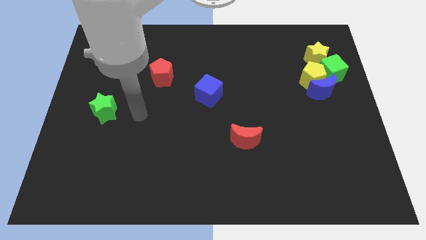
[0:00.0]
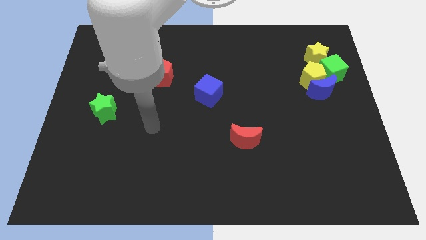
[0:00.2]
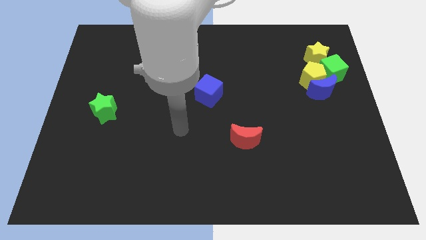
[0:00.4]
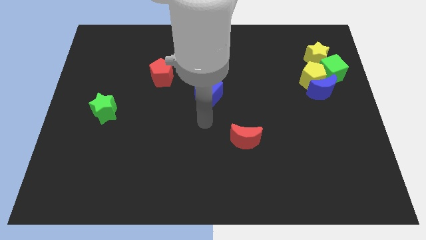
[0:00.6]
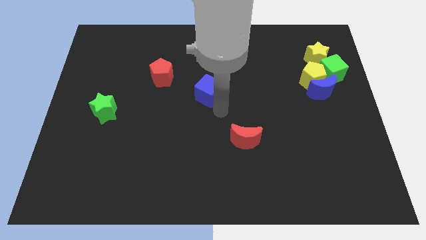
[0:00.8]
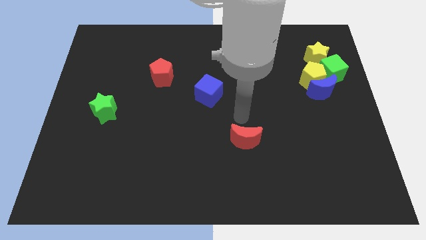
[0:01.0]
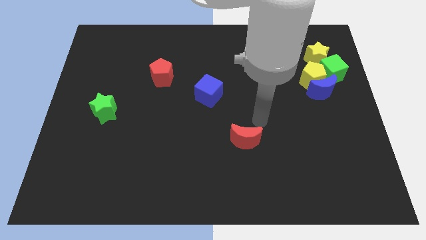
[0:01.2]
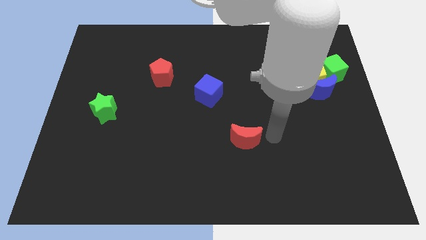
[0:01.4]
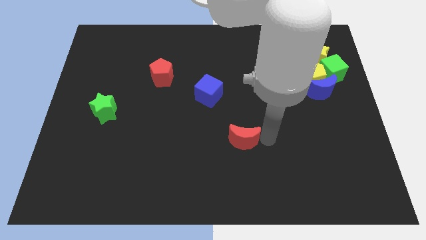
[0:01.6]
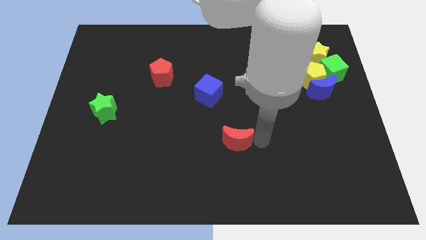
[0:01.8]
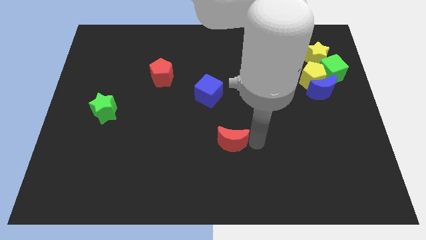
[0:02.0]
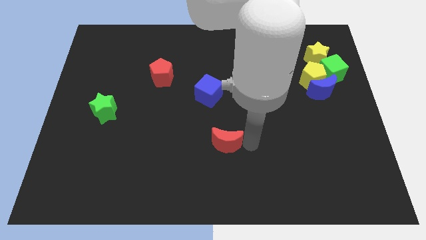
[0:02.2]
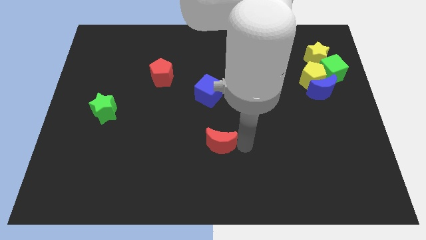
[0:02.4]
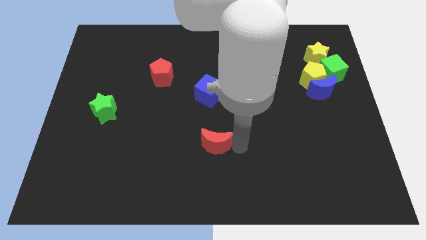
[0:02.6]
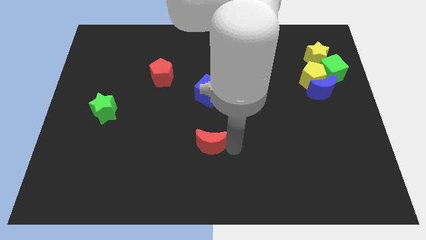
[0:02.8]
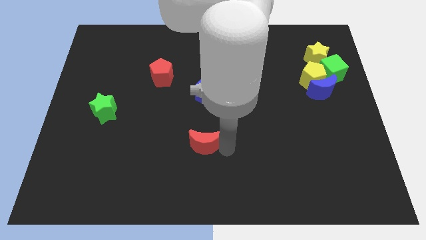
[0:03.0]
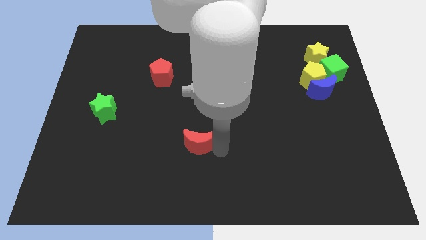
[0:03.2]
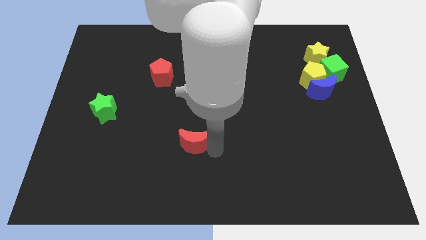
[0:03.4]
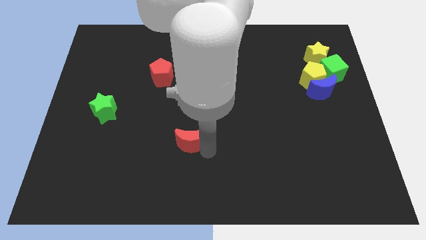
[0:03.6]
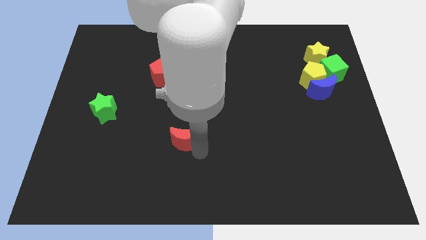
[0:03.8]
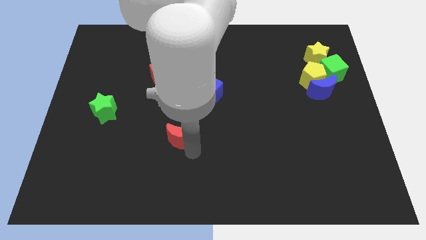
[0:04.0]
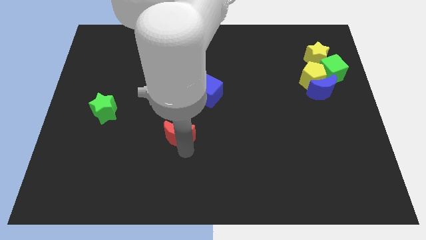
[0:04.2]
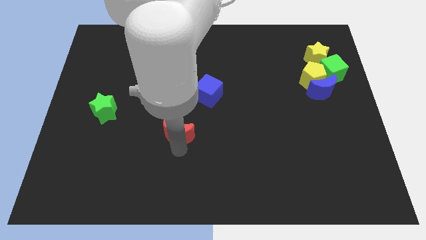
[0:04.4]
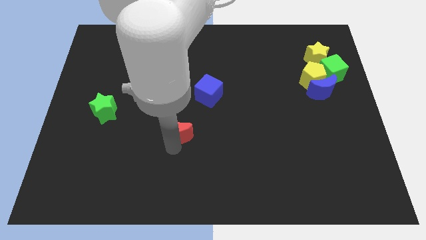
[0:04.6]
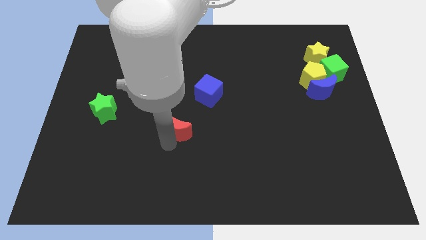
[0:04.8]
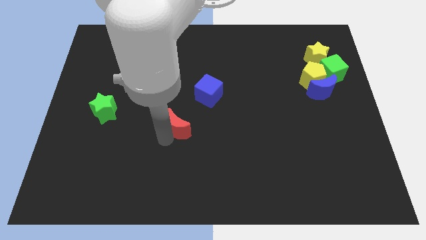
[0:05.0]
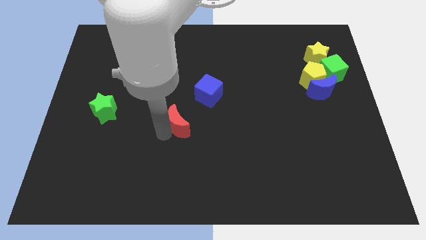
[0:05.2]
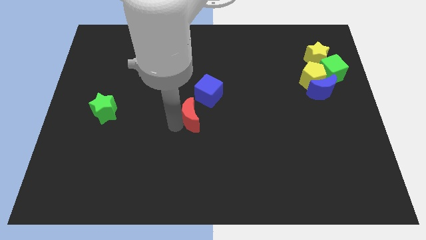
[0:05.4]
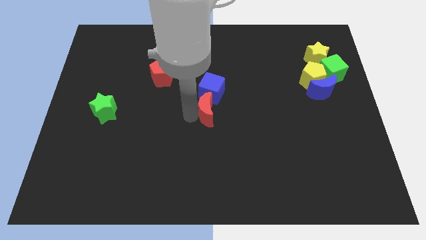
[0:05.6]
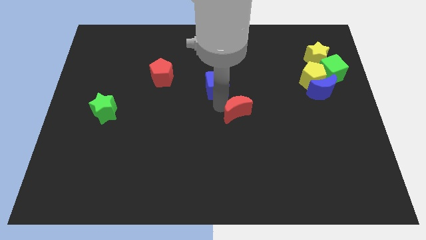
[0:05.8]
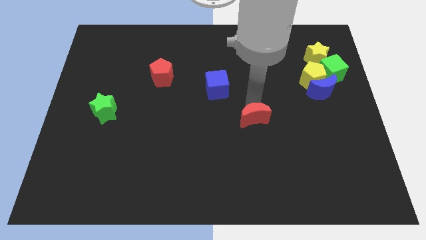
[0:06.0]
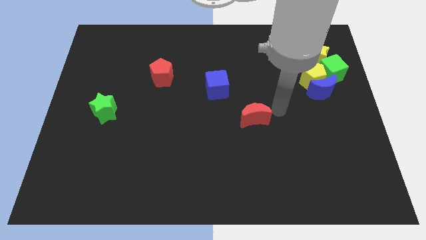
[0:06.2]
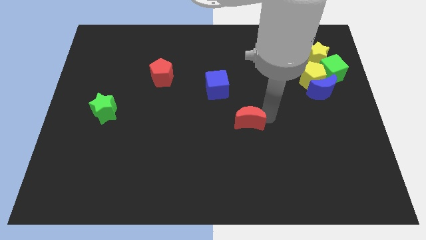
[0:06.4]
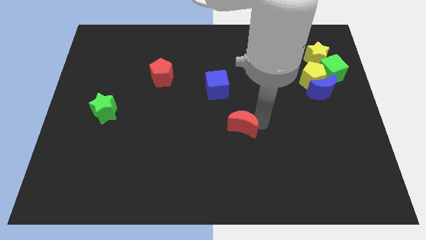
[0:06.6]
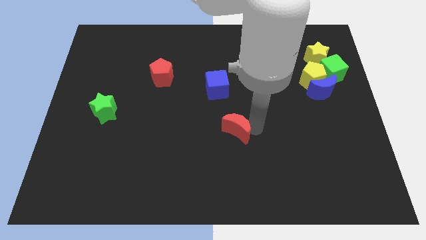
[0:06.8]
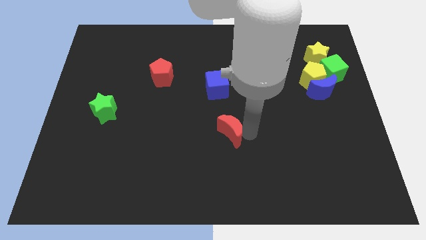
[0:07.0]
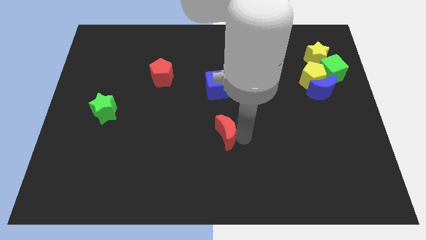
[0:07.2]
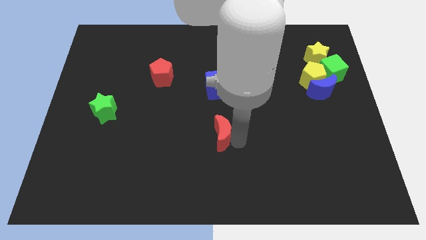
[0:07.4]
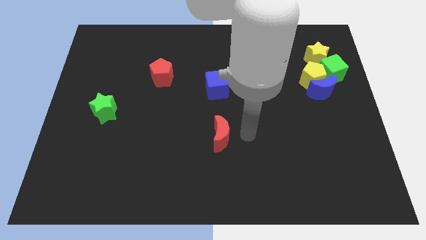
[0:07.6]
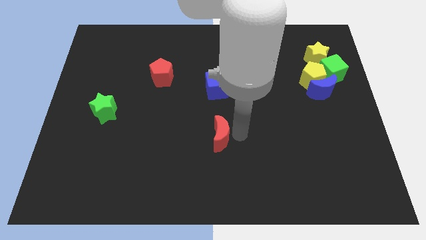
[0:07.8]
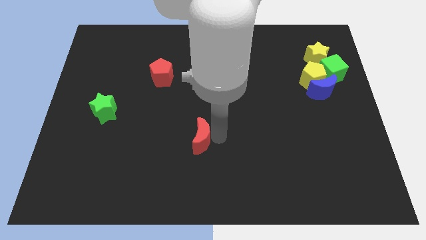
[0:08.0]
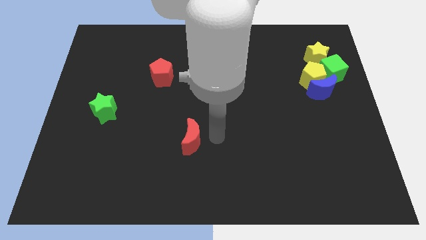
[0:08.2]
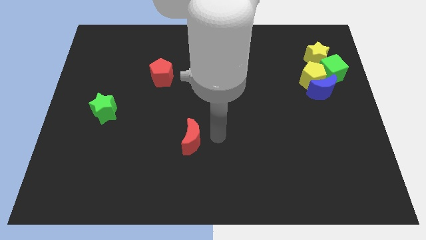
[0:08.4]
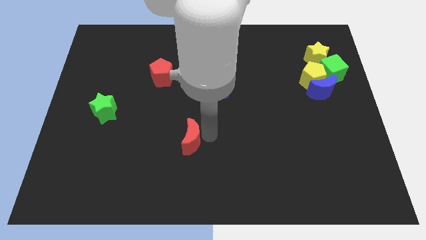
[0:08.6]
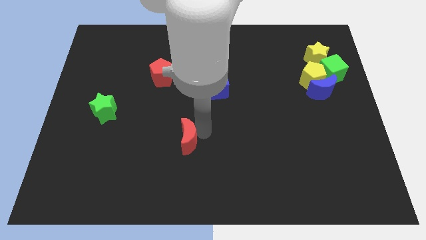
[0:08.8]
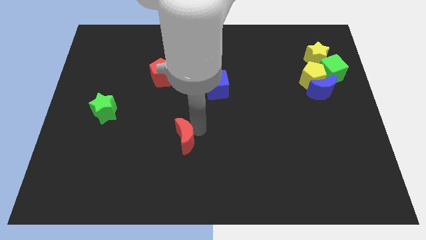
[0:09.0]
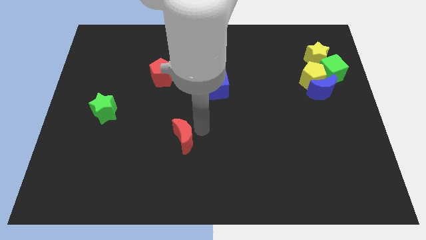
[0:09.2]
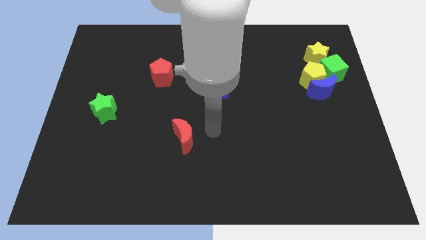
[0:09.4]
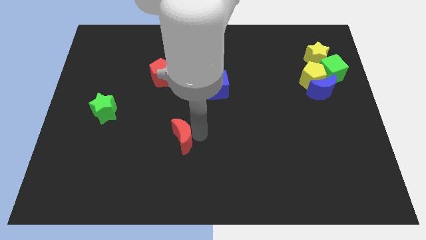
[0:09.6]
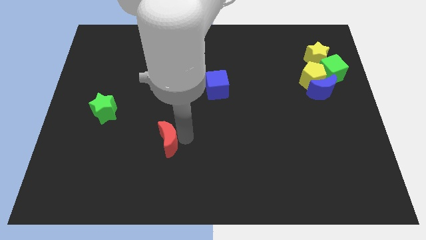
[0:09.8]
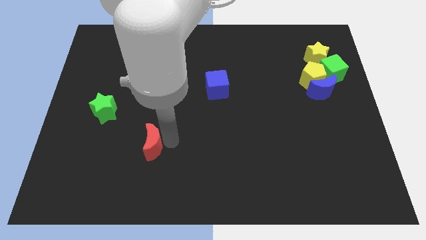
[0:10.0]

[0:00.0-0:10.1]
move the red moon to the left

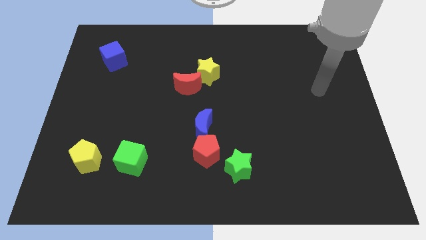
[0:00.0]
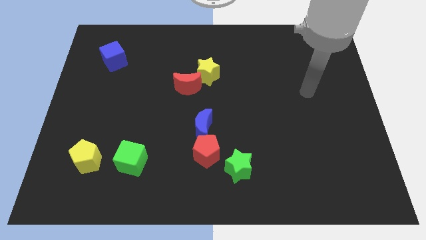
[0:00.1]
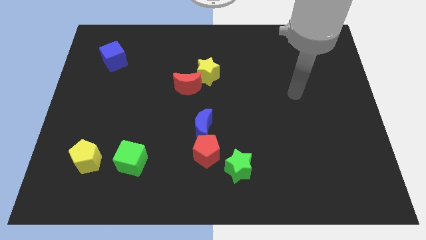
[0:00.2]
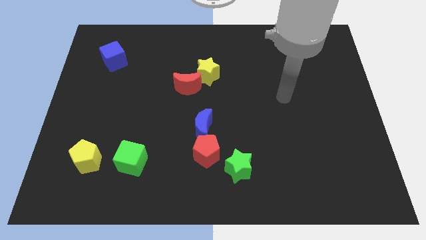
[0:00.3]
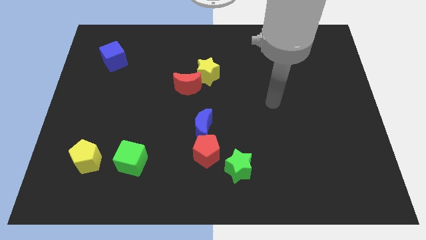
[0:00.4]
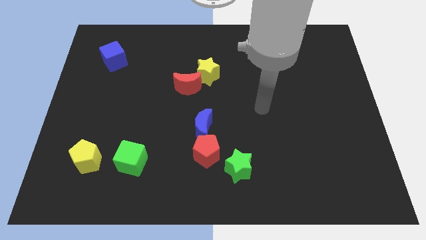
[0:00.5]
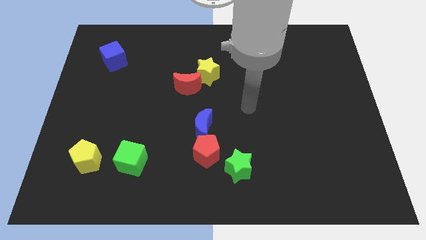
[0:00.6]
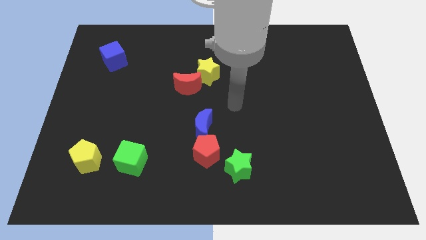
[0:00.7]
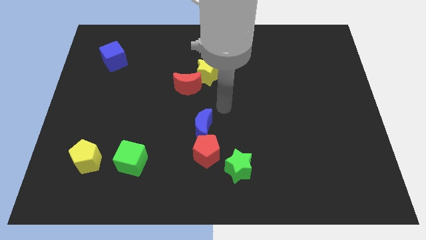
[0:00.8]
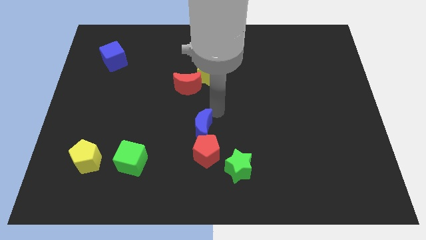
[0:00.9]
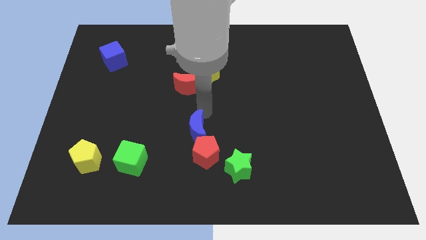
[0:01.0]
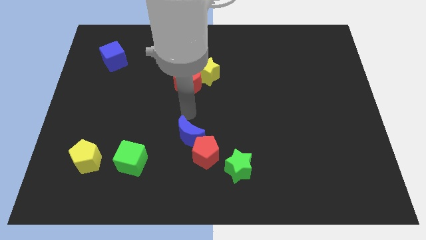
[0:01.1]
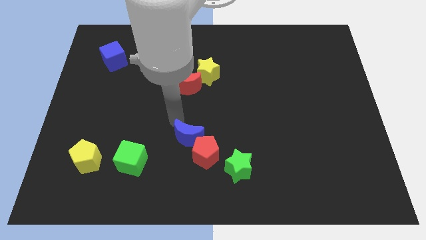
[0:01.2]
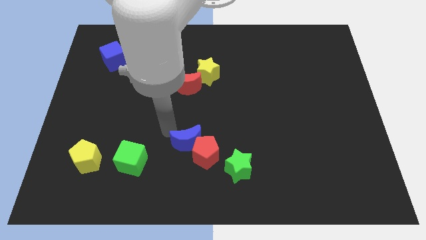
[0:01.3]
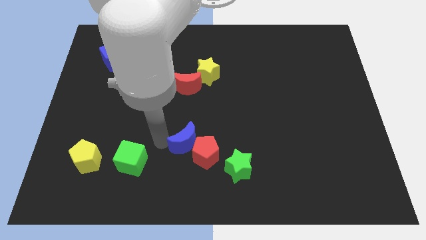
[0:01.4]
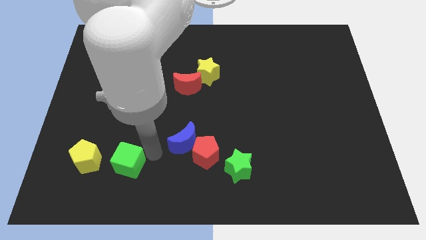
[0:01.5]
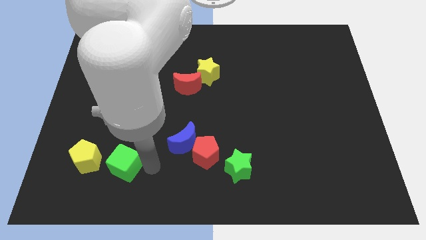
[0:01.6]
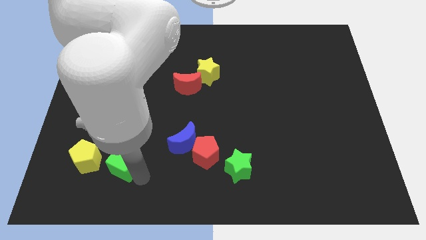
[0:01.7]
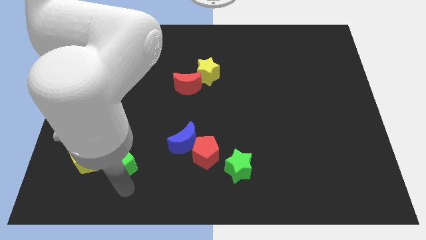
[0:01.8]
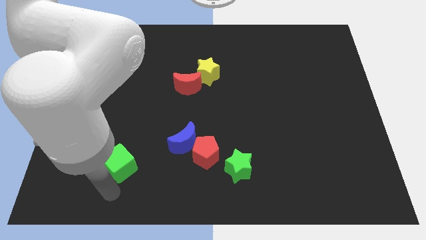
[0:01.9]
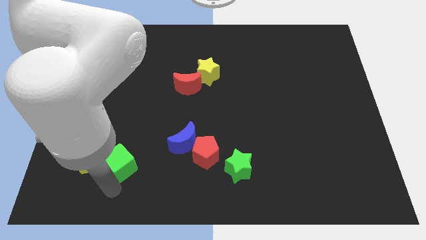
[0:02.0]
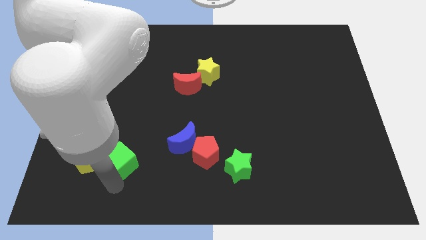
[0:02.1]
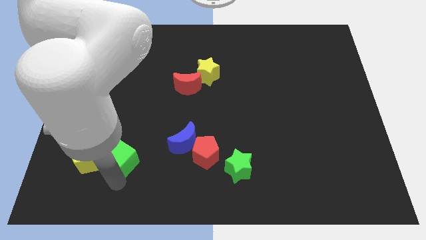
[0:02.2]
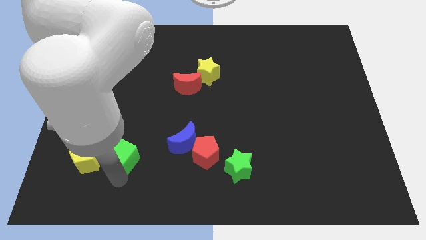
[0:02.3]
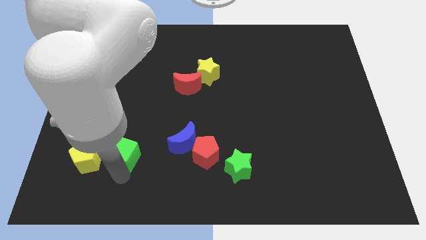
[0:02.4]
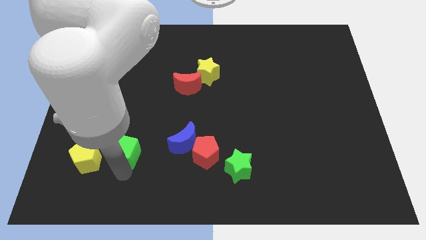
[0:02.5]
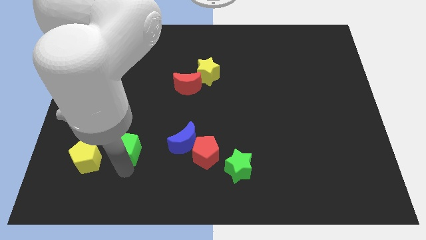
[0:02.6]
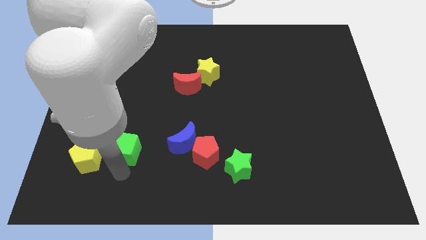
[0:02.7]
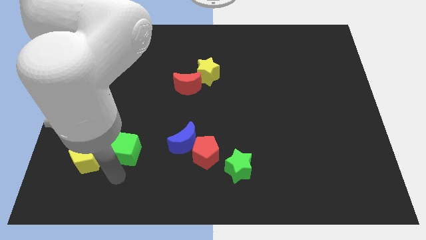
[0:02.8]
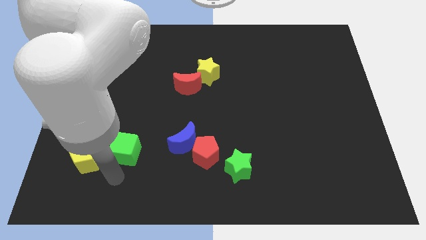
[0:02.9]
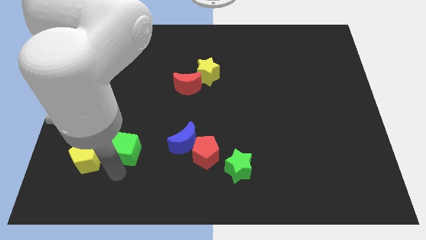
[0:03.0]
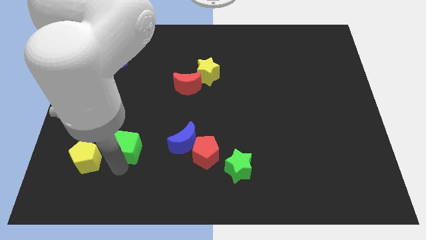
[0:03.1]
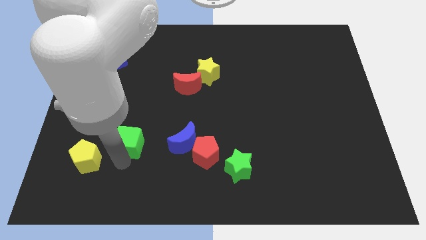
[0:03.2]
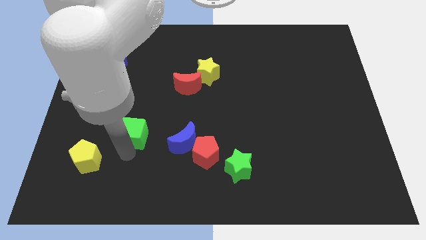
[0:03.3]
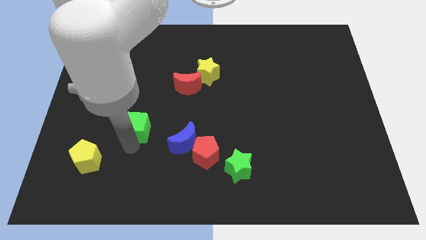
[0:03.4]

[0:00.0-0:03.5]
slightly move the green cube upwards
